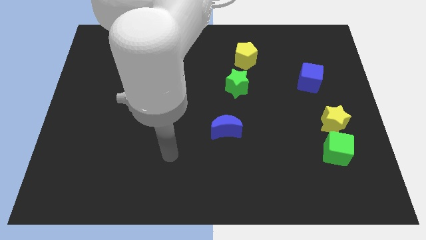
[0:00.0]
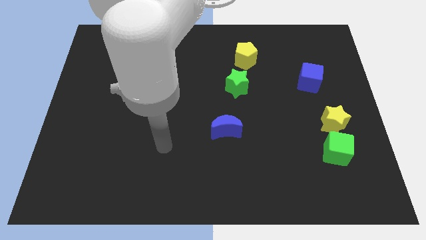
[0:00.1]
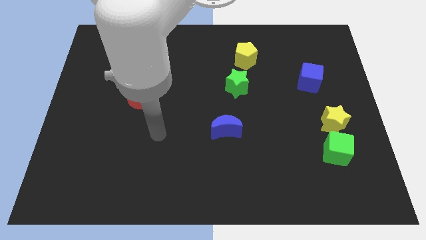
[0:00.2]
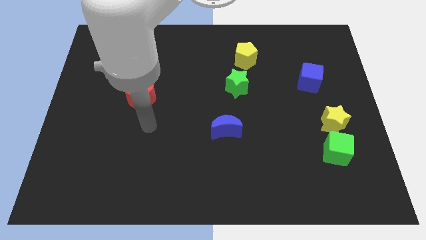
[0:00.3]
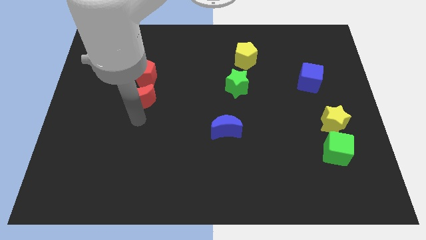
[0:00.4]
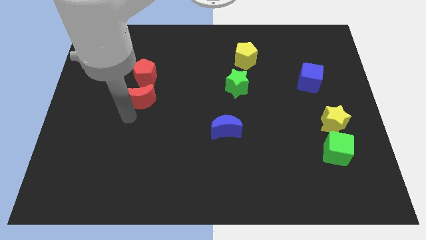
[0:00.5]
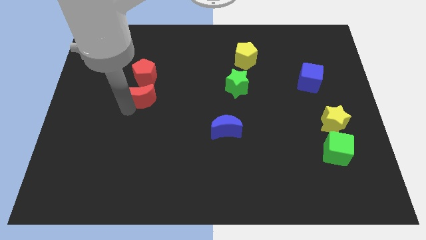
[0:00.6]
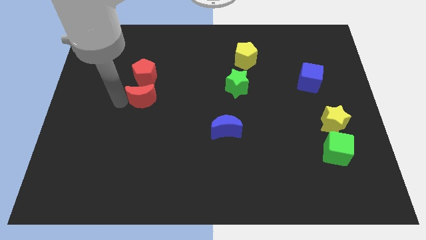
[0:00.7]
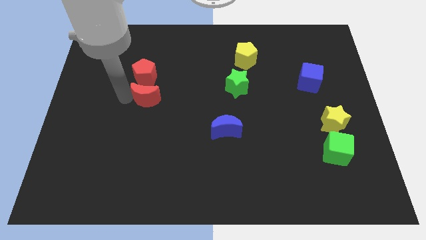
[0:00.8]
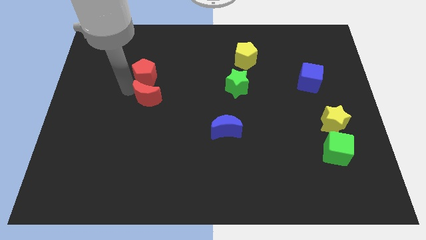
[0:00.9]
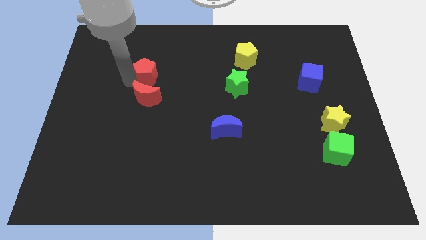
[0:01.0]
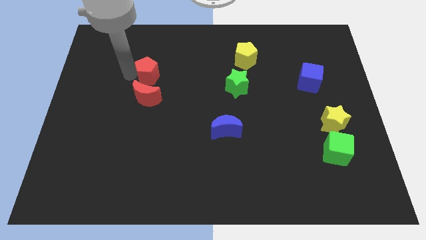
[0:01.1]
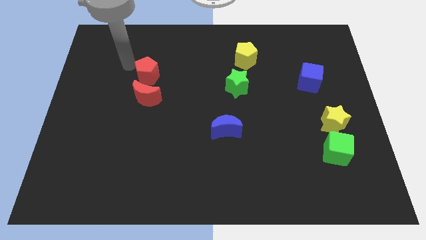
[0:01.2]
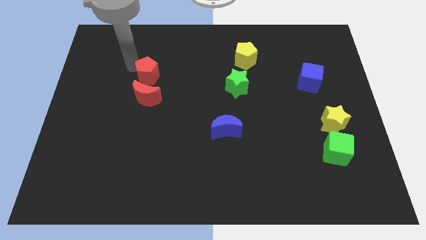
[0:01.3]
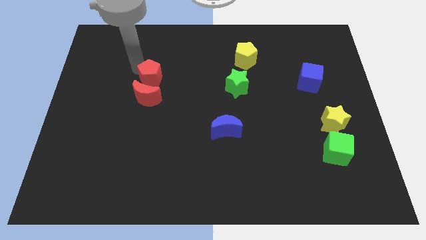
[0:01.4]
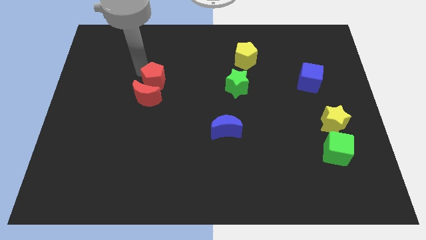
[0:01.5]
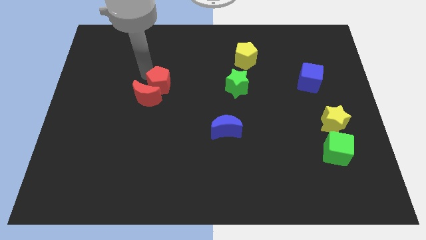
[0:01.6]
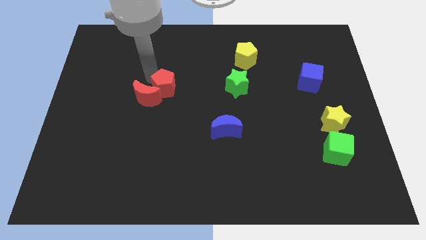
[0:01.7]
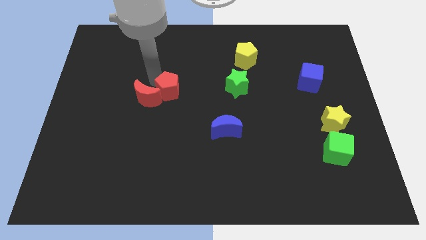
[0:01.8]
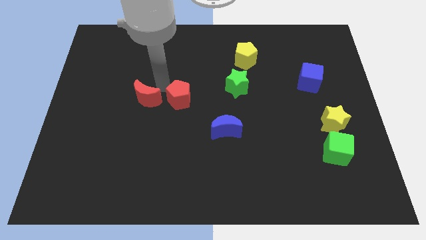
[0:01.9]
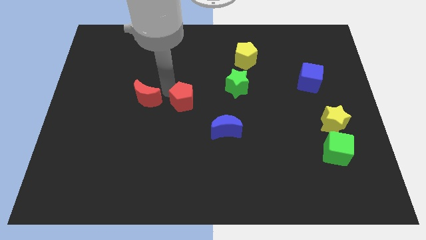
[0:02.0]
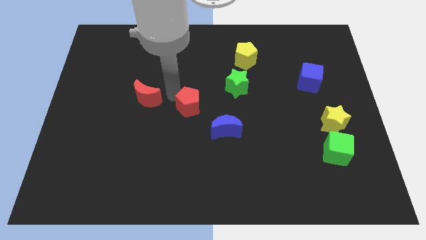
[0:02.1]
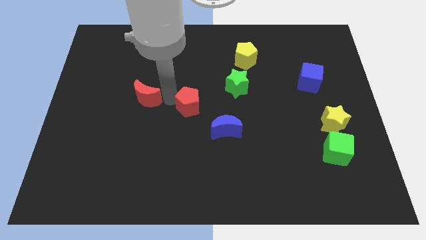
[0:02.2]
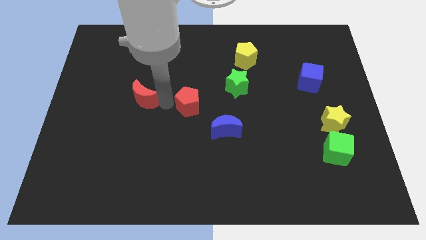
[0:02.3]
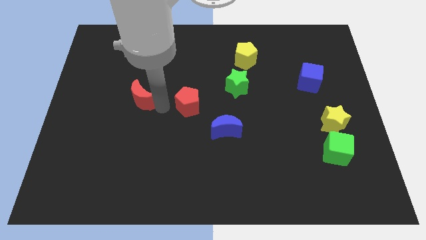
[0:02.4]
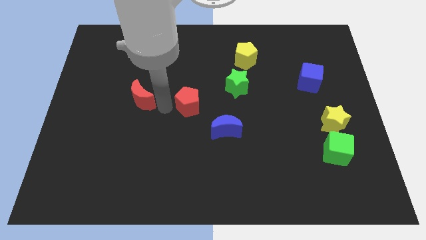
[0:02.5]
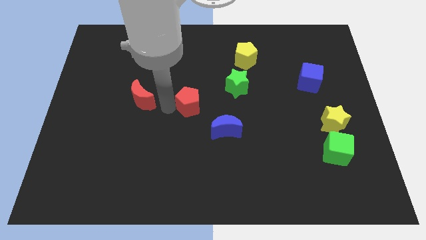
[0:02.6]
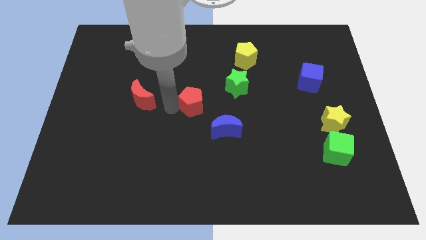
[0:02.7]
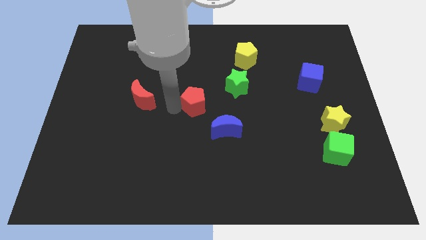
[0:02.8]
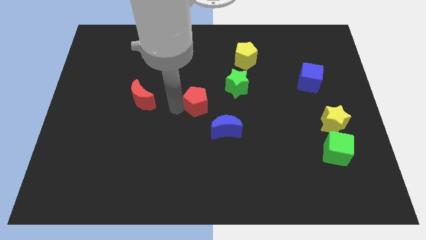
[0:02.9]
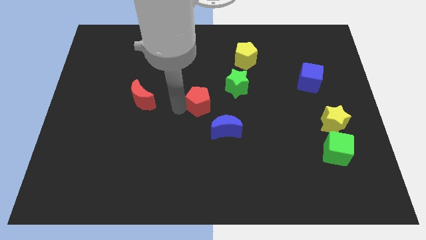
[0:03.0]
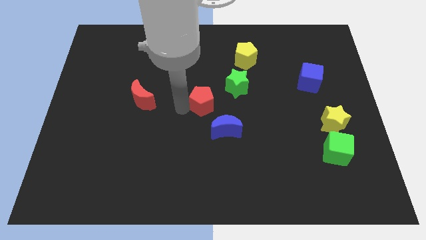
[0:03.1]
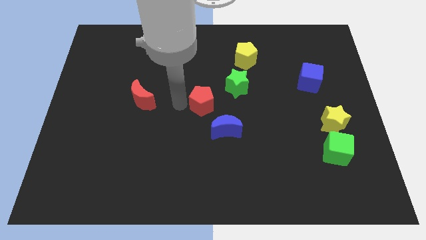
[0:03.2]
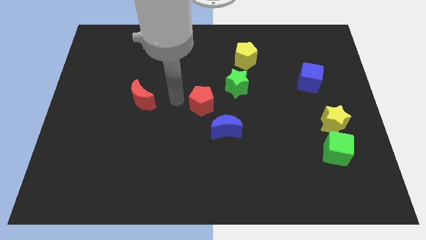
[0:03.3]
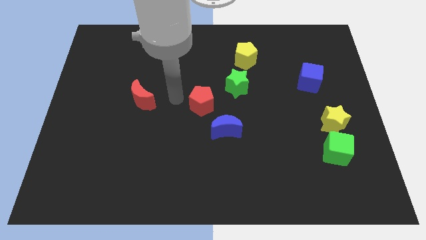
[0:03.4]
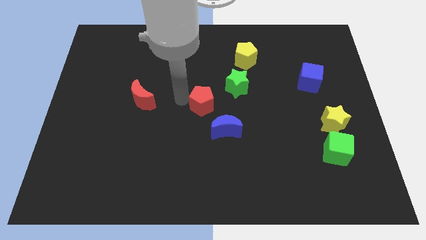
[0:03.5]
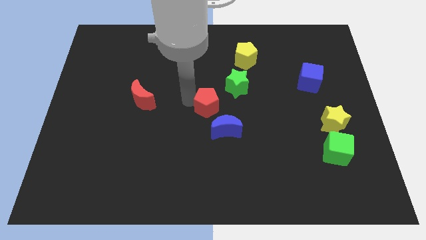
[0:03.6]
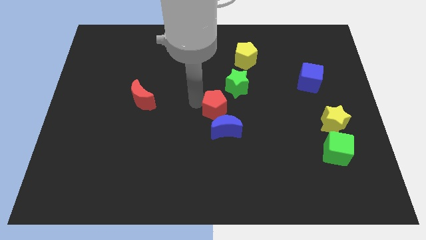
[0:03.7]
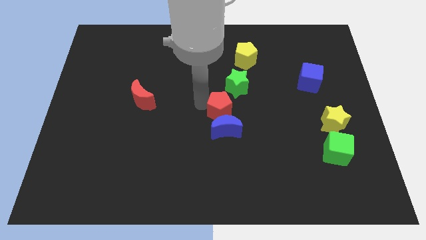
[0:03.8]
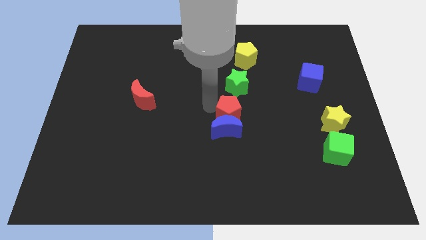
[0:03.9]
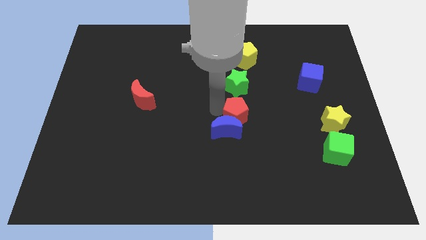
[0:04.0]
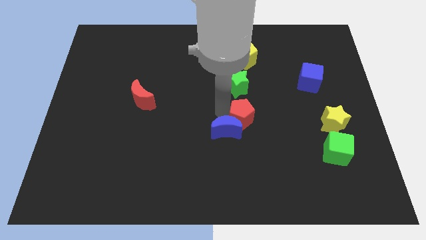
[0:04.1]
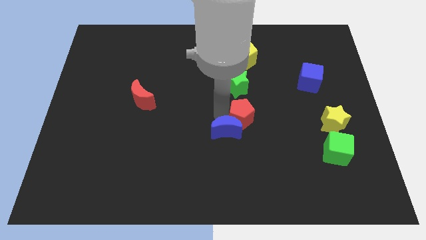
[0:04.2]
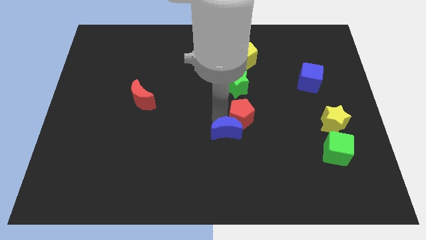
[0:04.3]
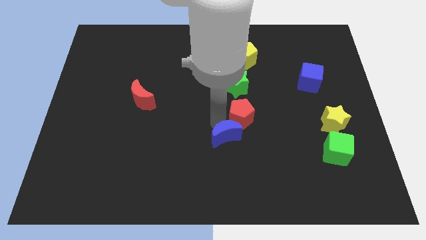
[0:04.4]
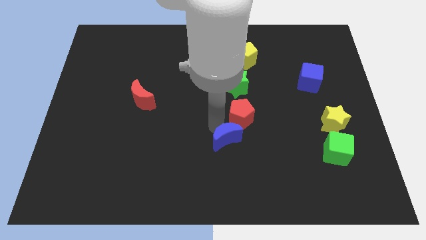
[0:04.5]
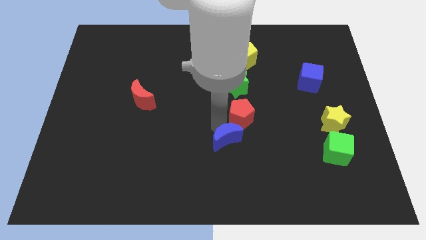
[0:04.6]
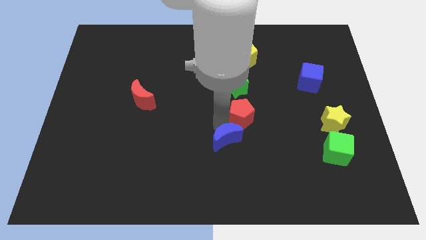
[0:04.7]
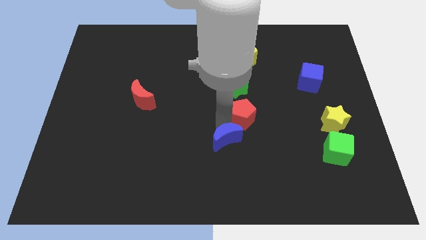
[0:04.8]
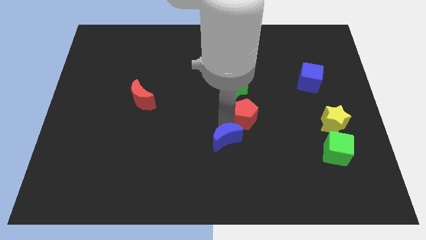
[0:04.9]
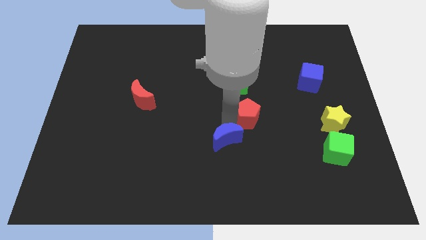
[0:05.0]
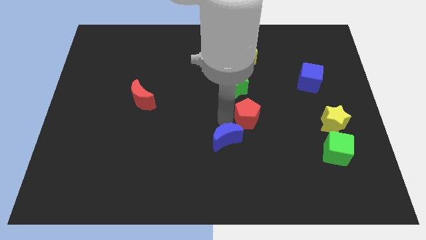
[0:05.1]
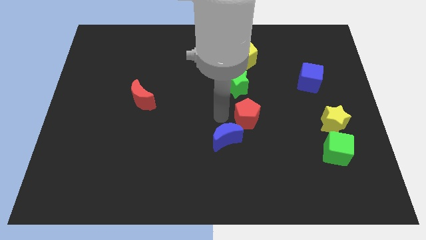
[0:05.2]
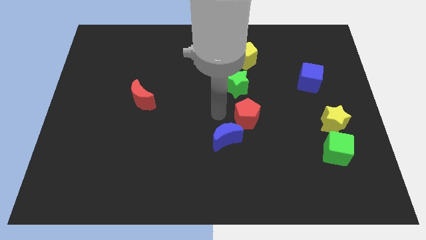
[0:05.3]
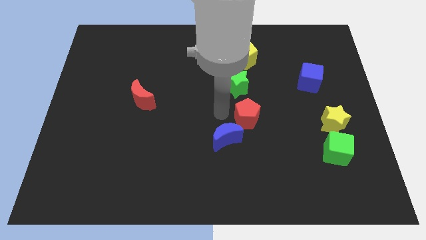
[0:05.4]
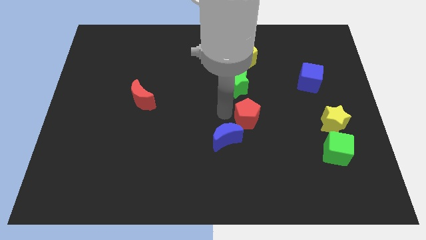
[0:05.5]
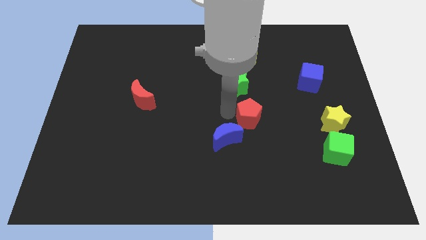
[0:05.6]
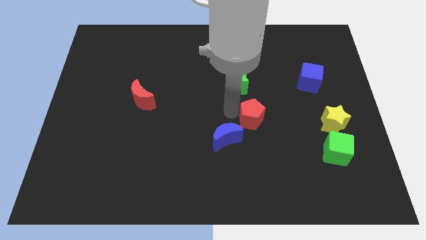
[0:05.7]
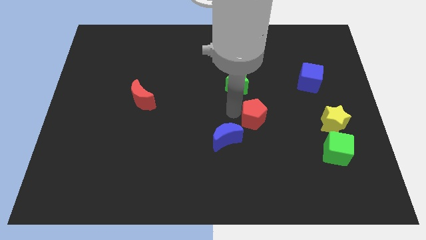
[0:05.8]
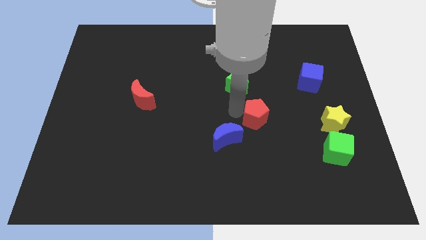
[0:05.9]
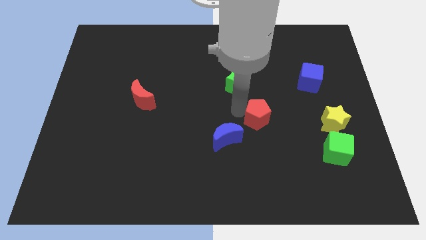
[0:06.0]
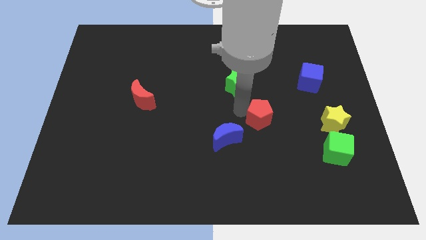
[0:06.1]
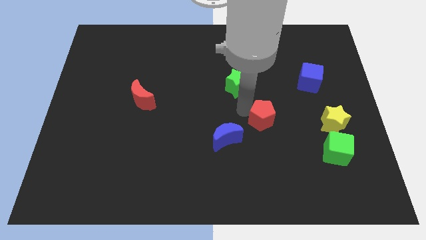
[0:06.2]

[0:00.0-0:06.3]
put the red pentagon left of the yellow star
